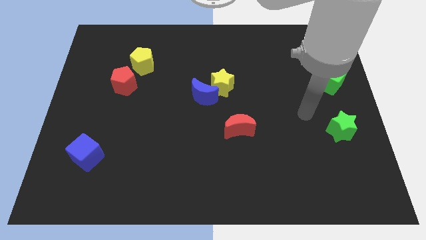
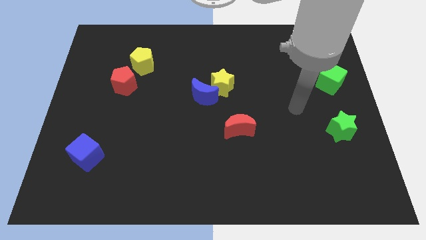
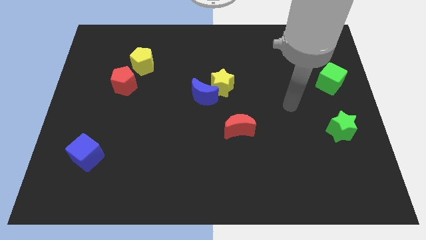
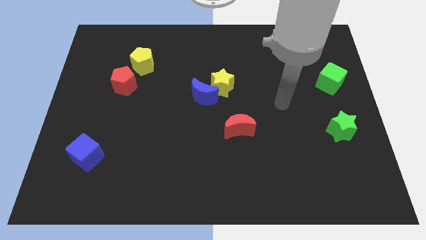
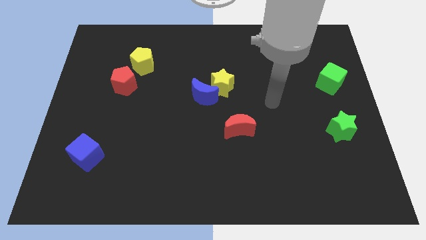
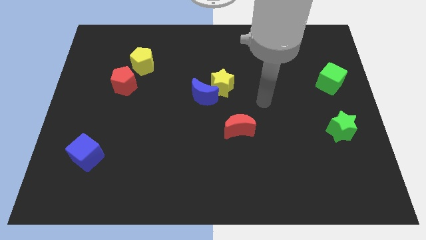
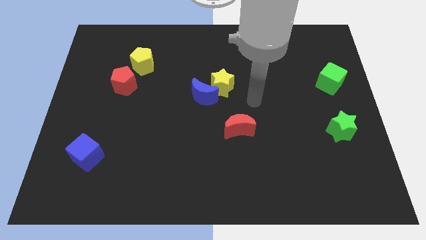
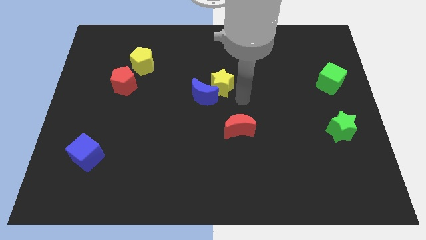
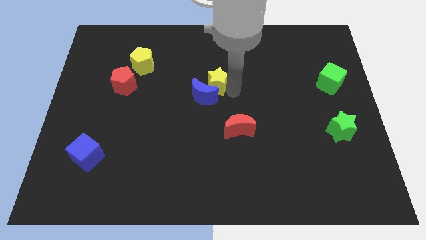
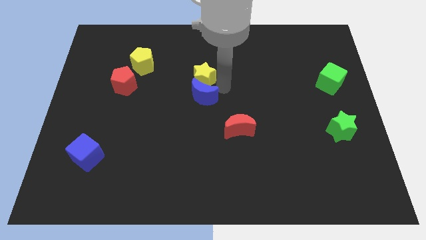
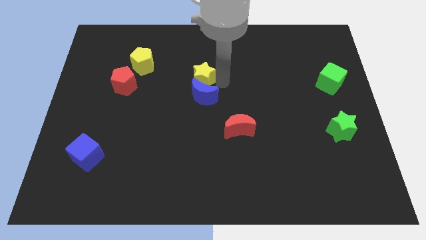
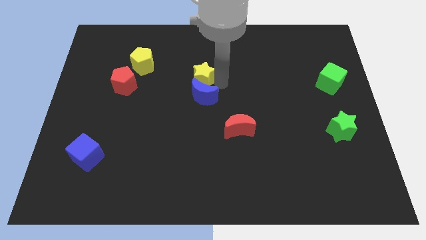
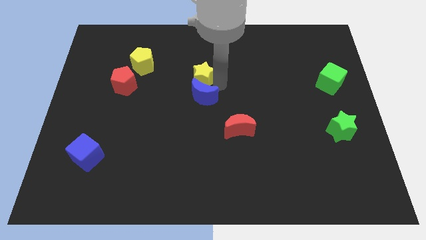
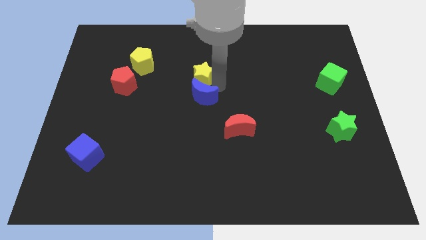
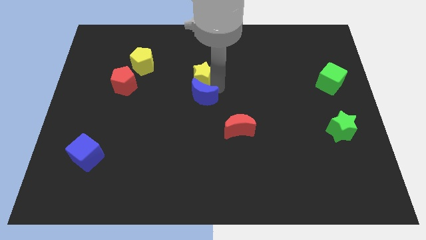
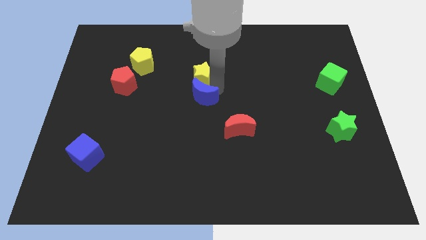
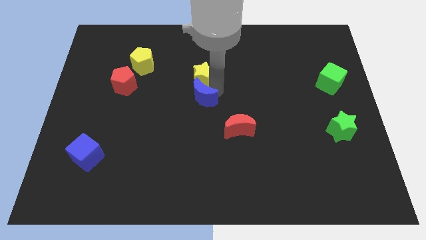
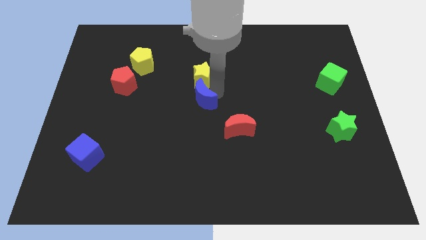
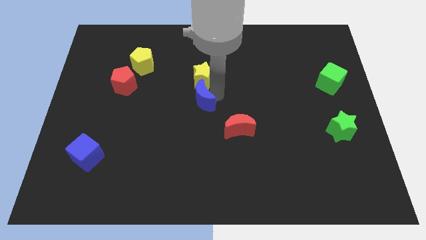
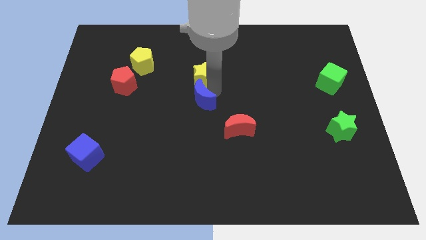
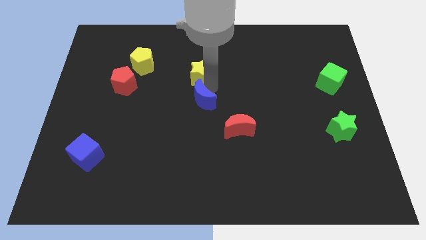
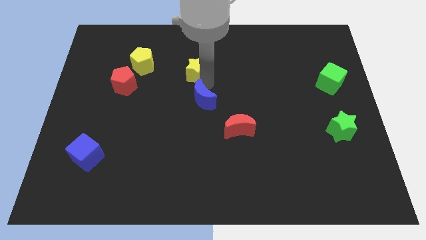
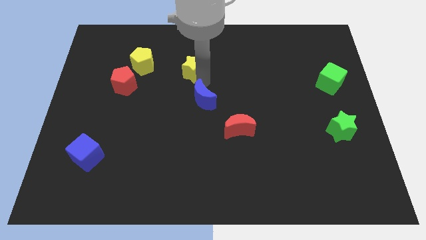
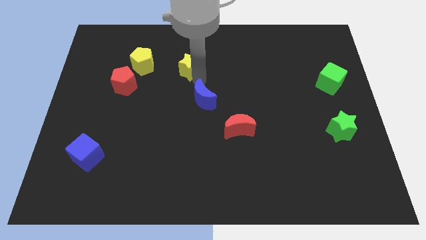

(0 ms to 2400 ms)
pull the blue moon apart from the yellow star

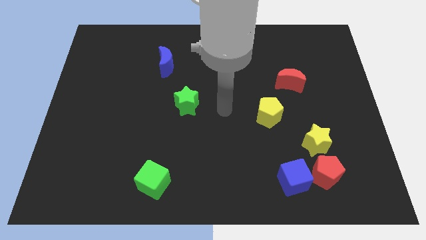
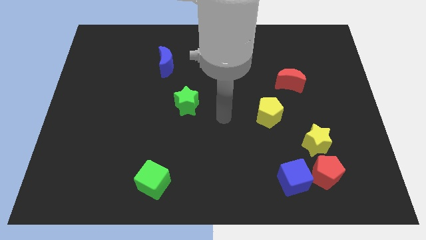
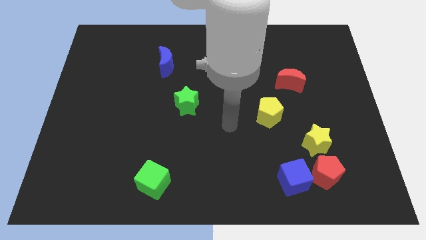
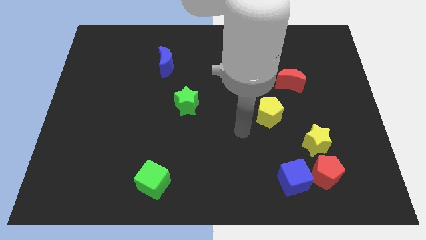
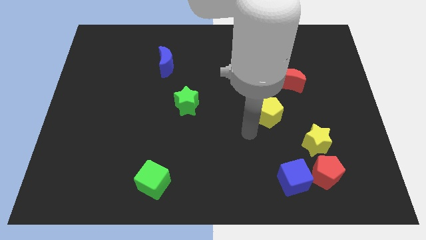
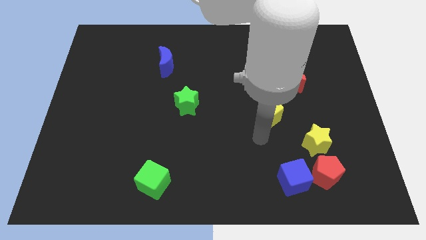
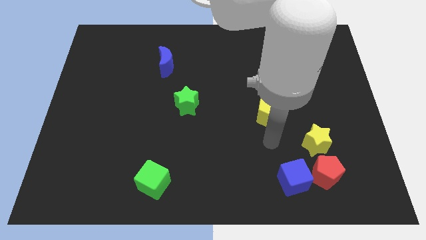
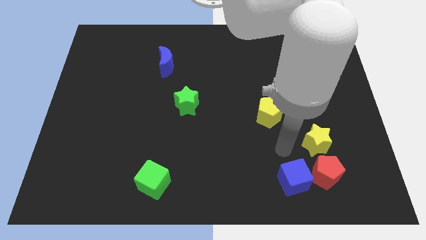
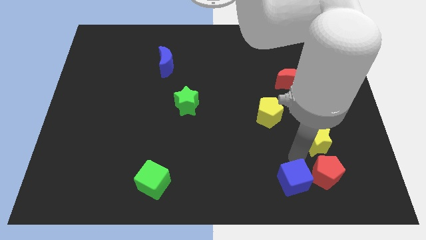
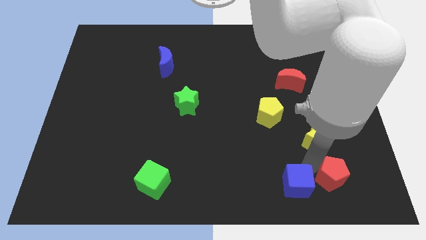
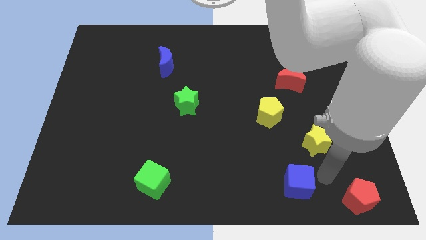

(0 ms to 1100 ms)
separate the blue cube from the red pentagon

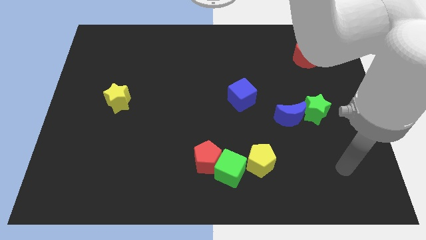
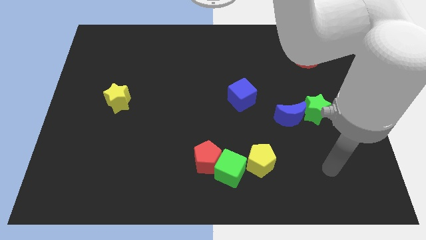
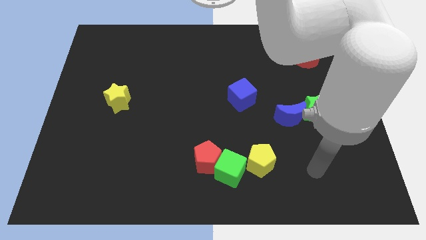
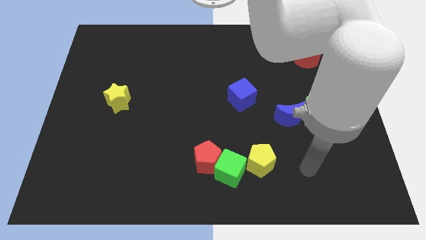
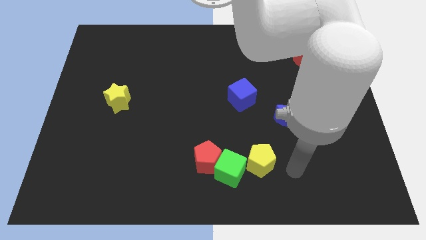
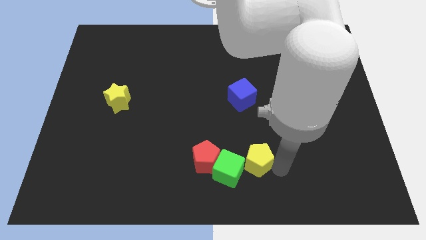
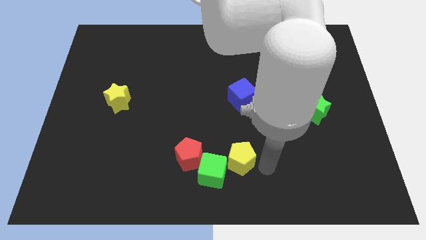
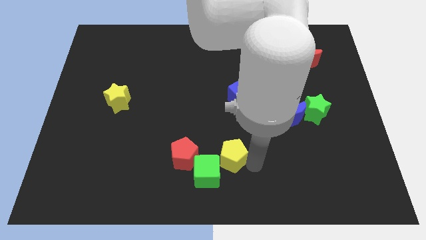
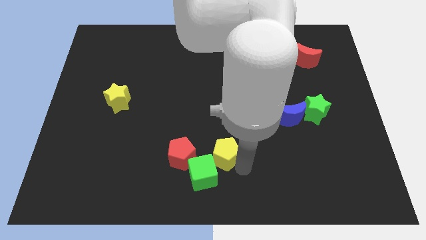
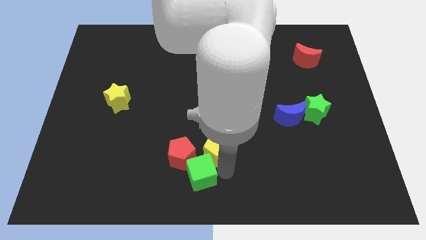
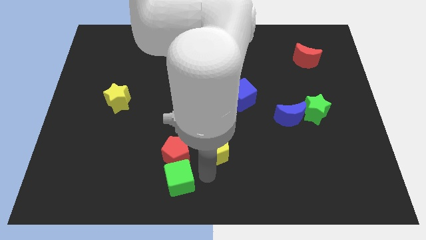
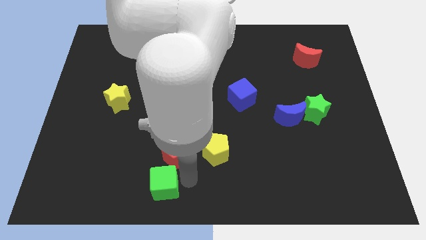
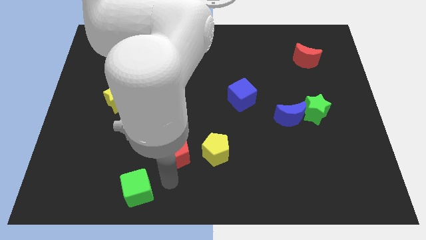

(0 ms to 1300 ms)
separate the red pentagon from the green cube

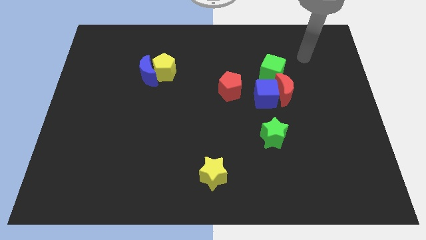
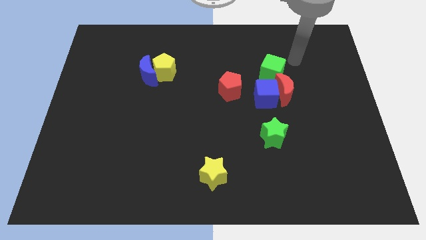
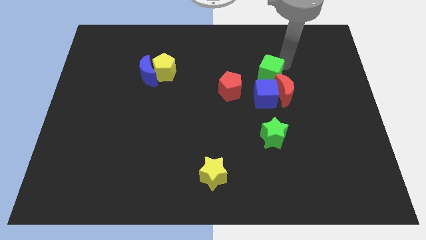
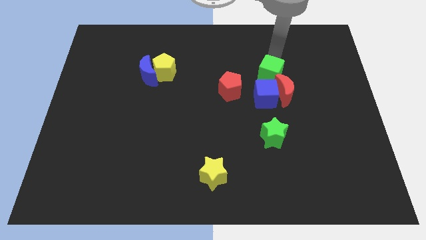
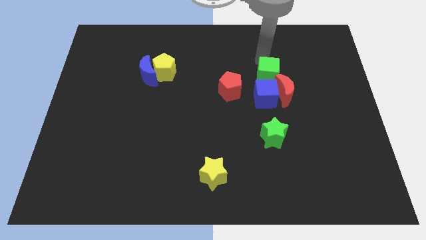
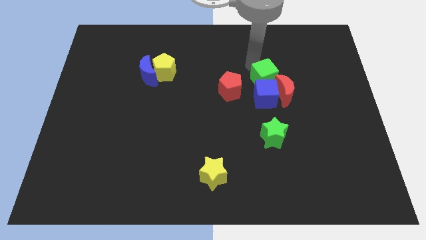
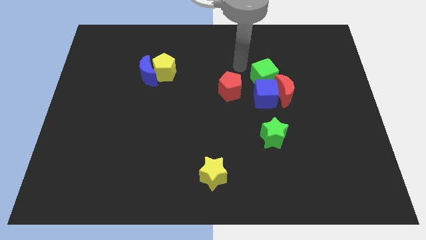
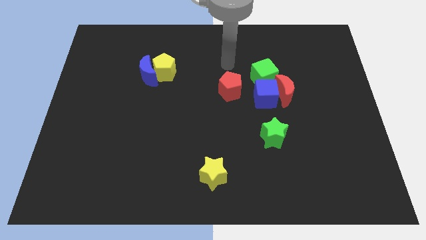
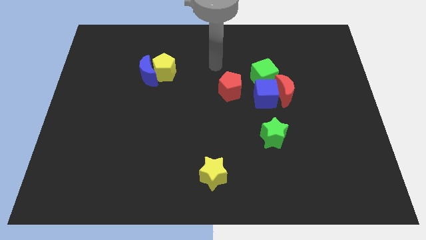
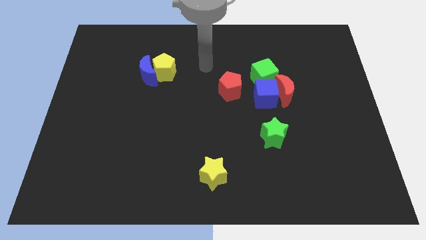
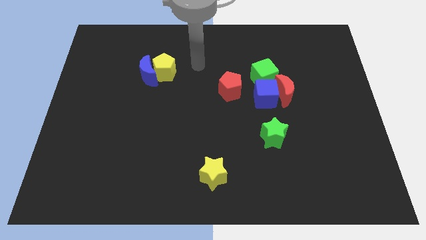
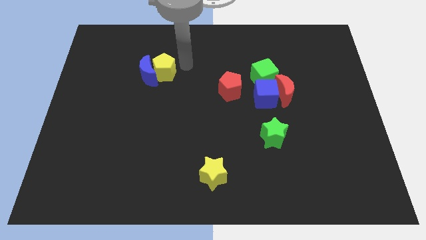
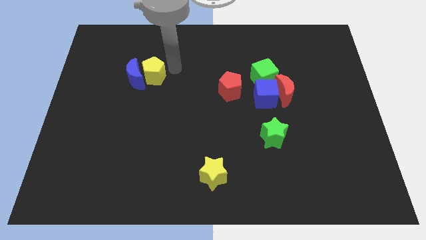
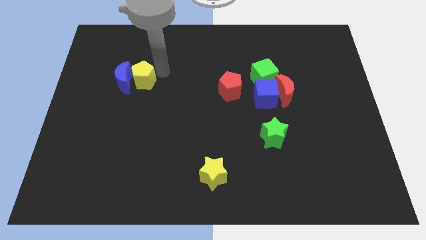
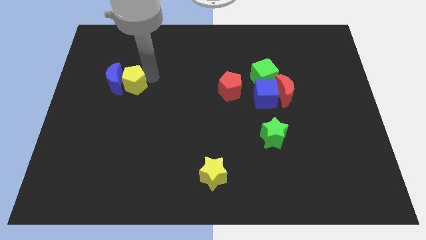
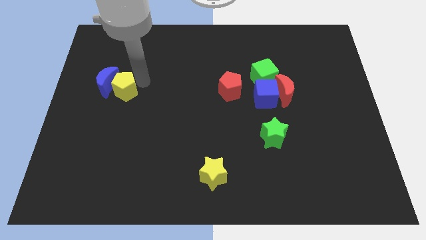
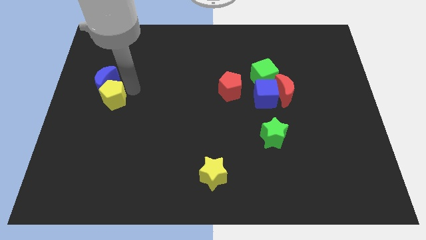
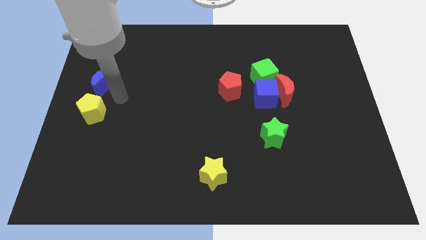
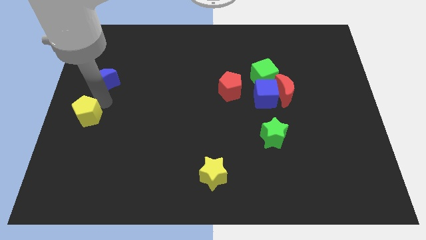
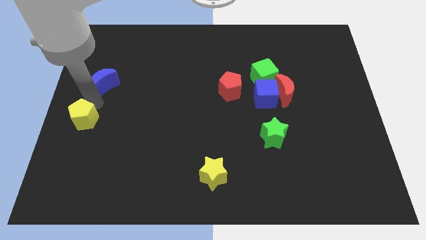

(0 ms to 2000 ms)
separate the blue moon from the yellow pentagon

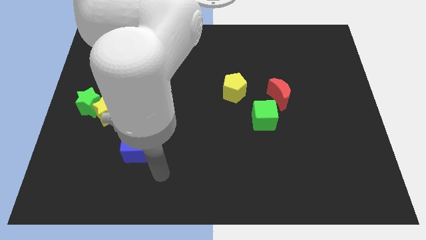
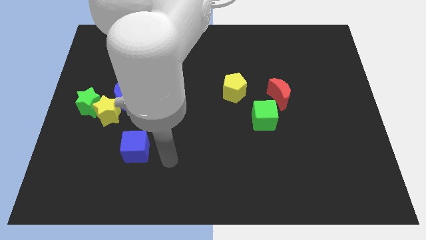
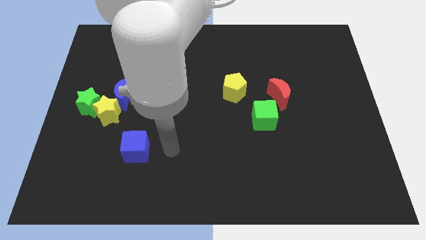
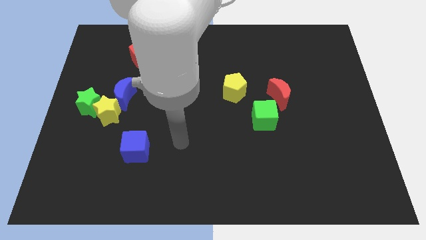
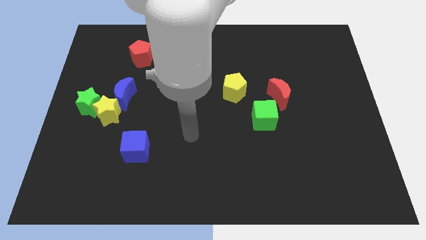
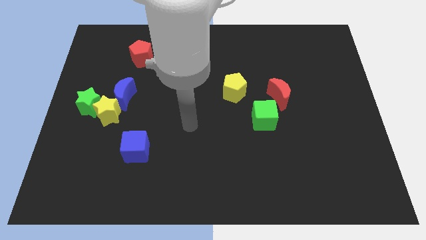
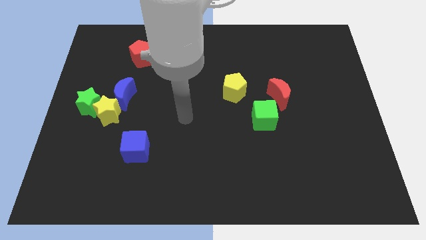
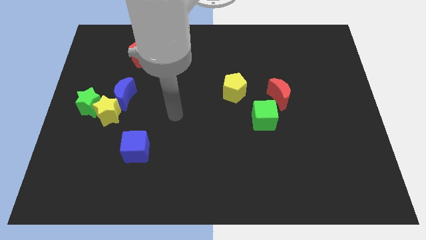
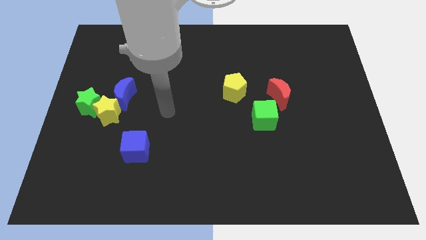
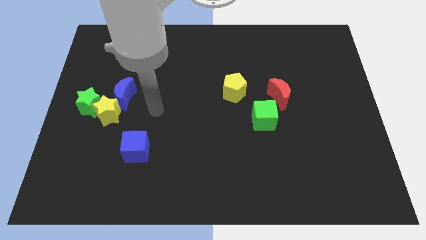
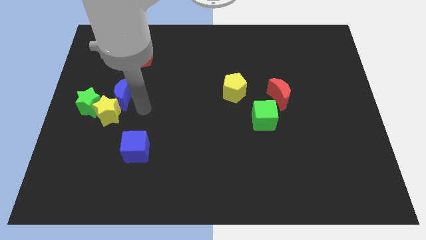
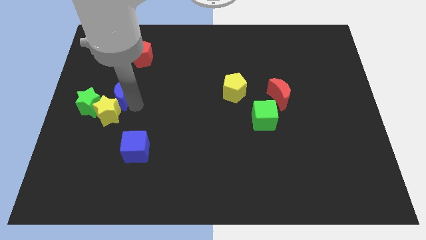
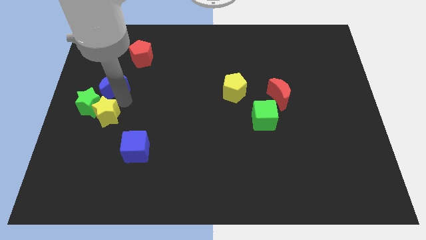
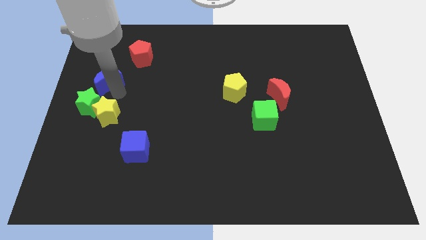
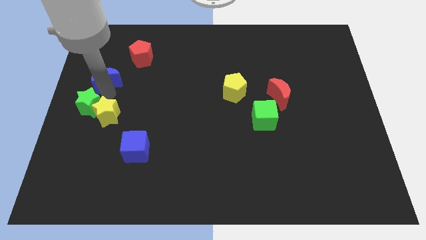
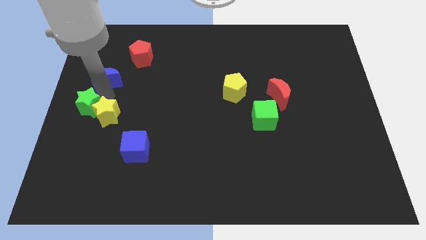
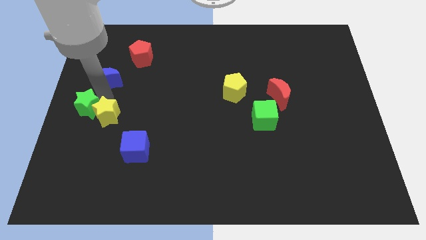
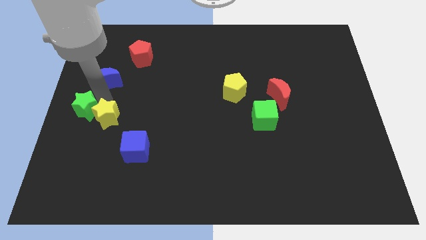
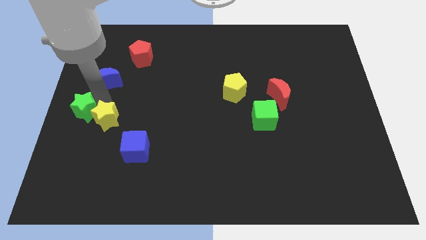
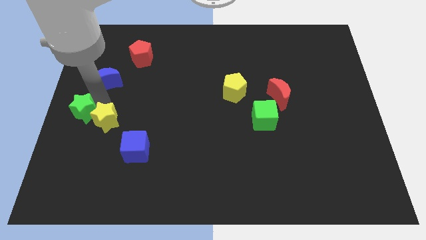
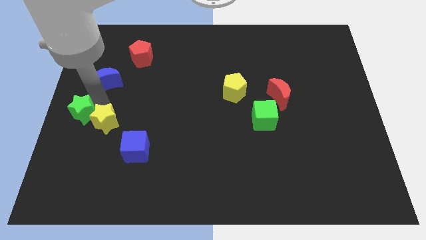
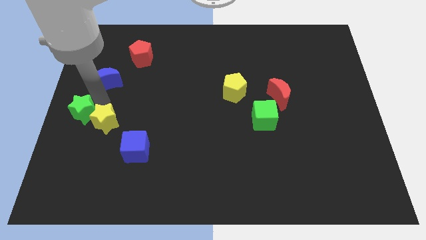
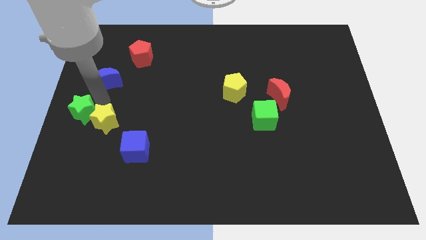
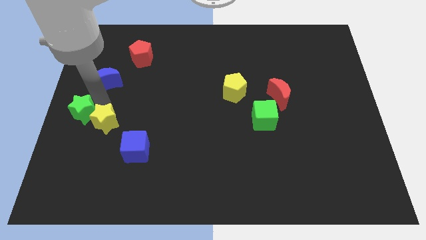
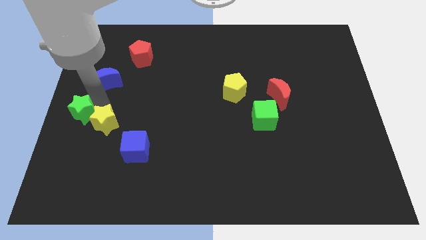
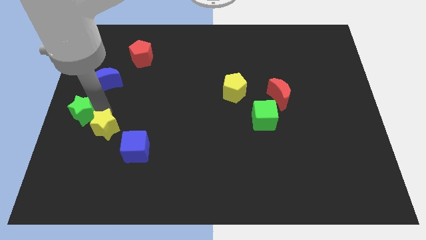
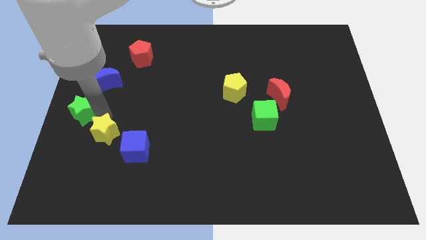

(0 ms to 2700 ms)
pull the yellow star apart from the green star and blue moon
